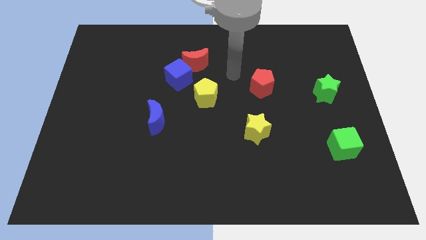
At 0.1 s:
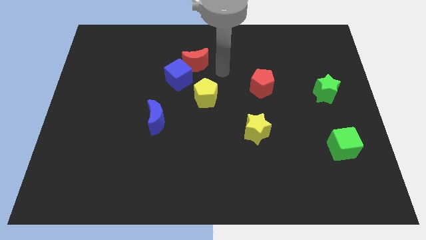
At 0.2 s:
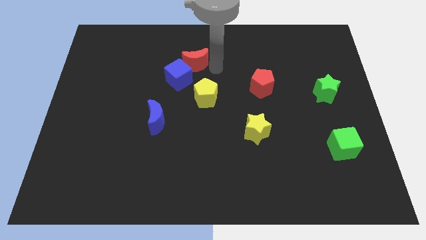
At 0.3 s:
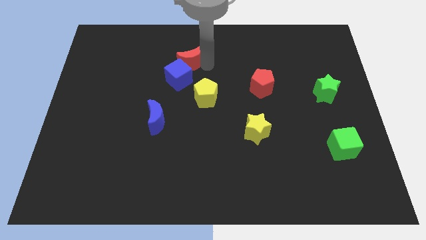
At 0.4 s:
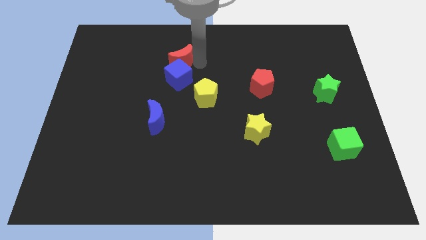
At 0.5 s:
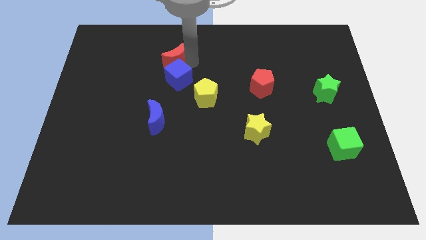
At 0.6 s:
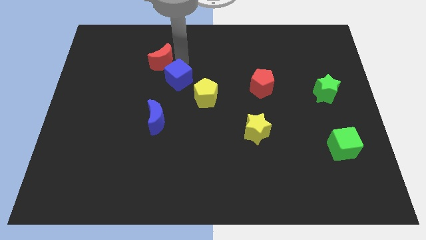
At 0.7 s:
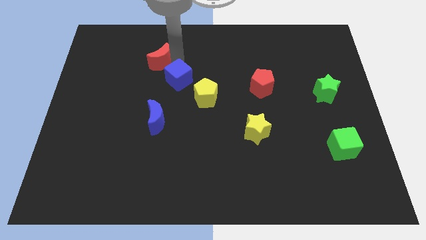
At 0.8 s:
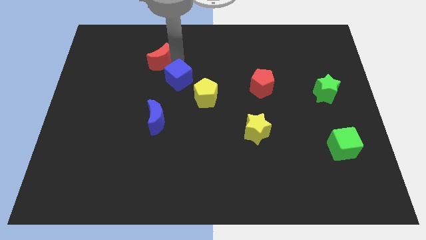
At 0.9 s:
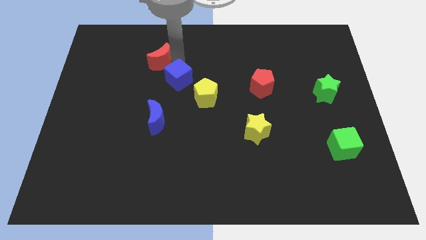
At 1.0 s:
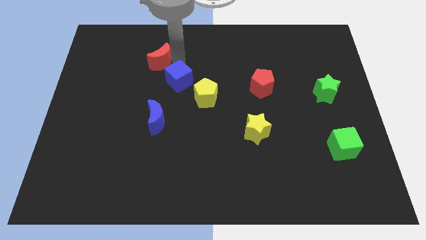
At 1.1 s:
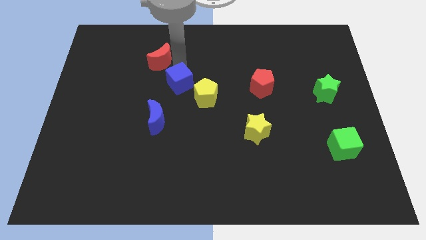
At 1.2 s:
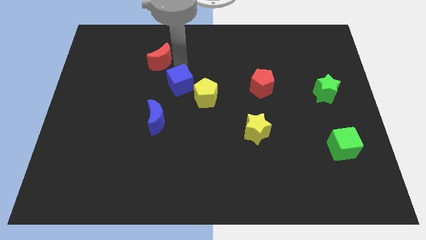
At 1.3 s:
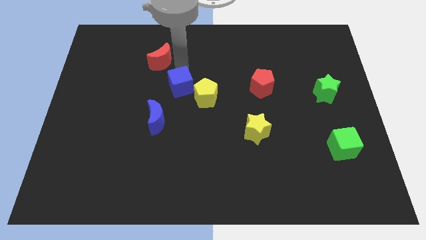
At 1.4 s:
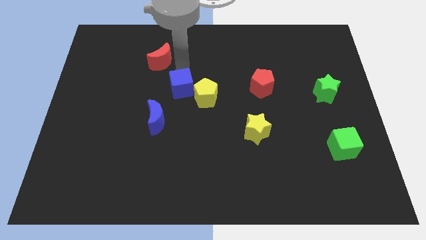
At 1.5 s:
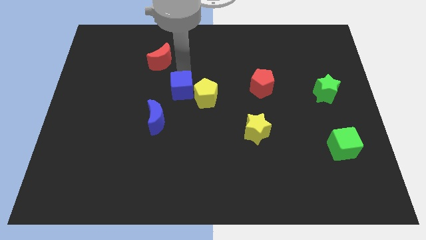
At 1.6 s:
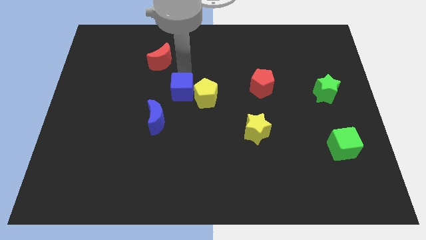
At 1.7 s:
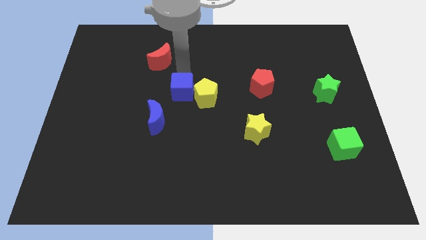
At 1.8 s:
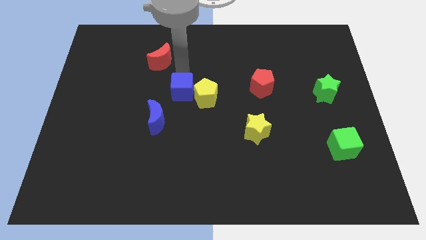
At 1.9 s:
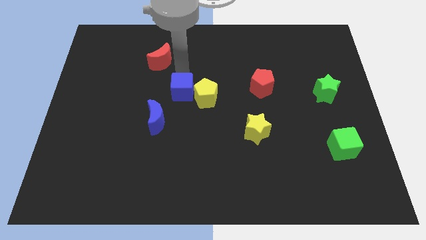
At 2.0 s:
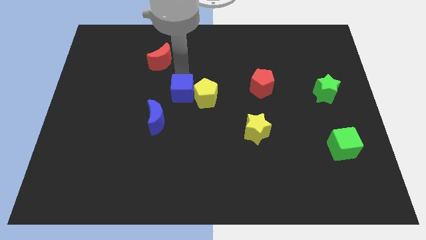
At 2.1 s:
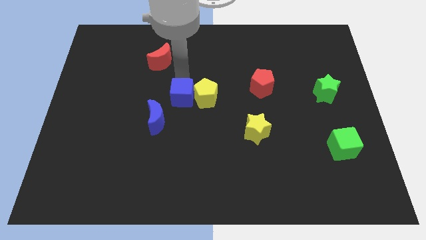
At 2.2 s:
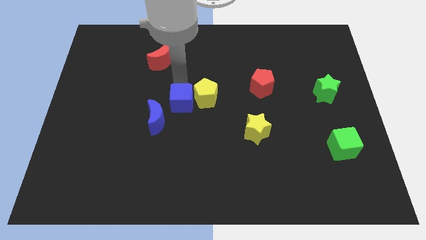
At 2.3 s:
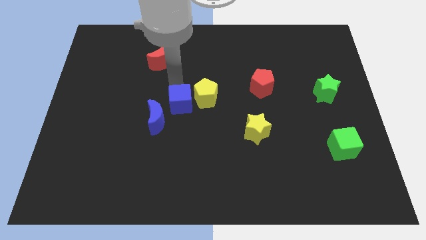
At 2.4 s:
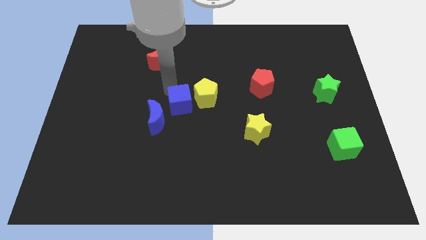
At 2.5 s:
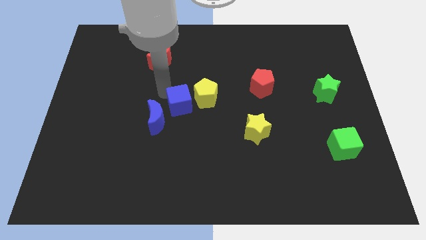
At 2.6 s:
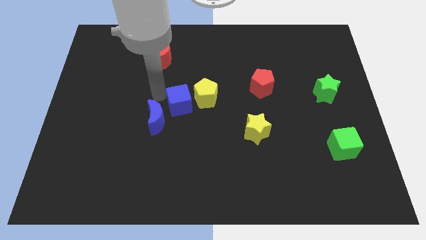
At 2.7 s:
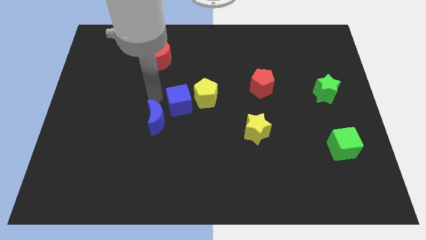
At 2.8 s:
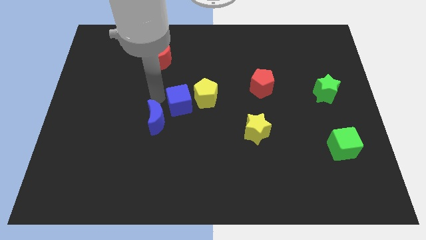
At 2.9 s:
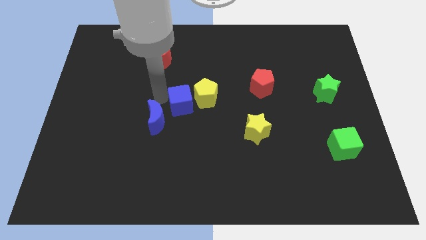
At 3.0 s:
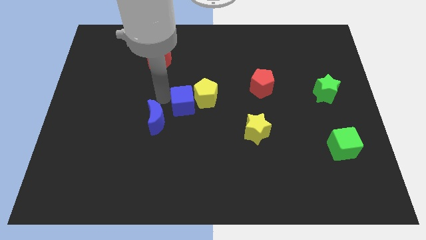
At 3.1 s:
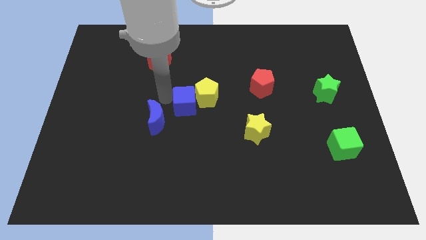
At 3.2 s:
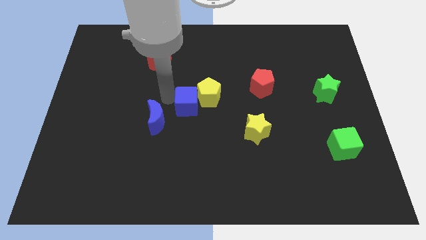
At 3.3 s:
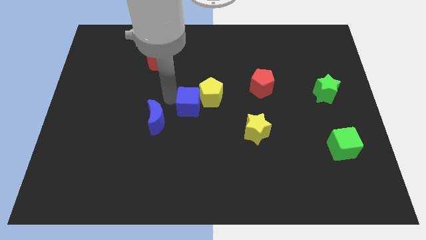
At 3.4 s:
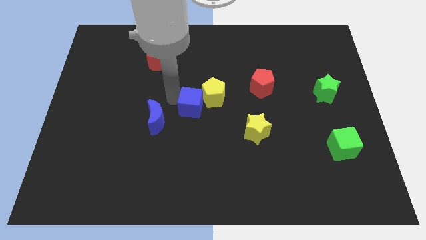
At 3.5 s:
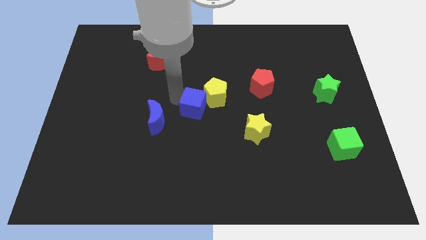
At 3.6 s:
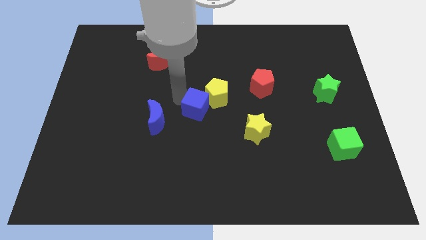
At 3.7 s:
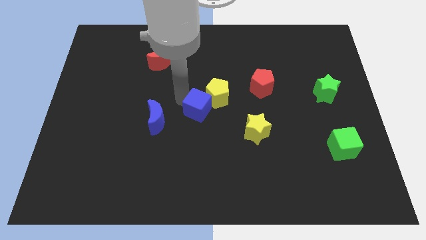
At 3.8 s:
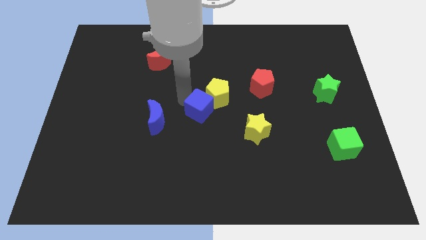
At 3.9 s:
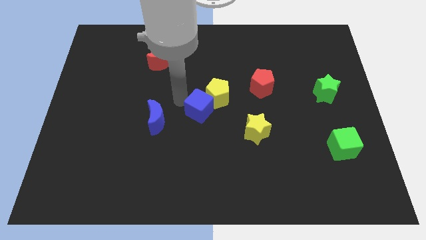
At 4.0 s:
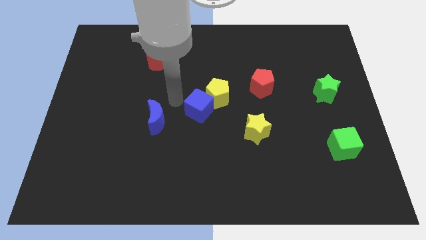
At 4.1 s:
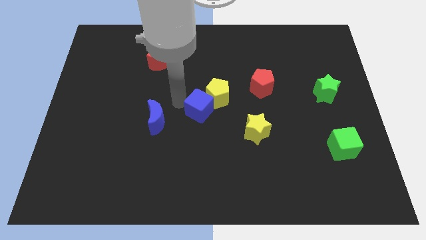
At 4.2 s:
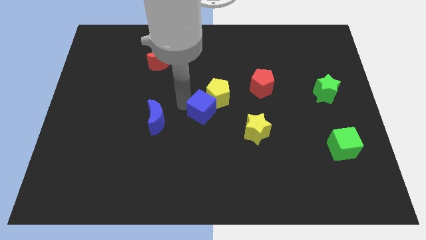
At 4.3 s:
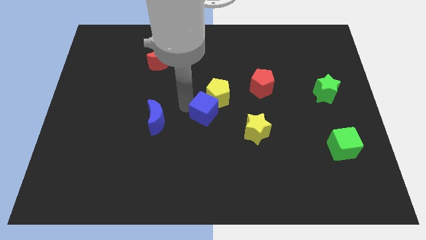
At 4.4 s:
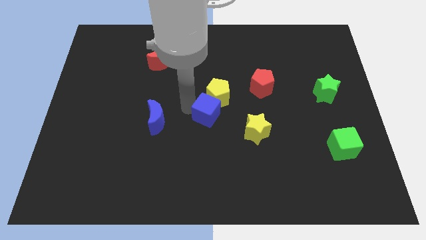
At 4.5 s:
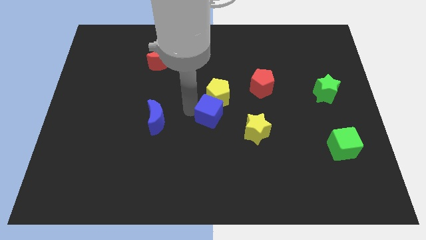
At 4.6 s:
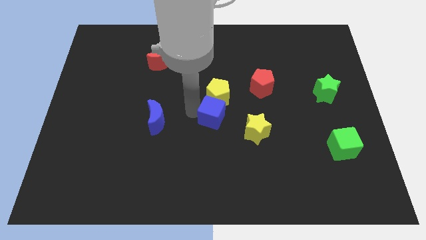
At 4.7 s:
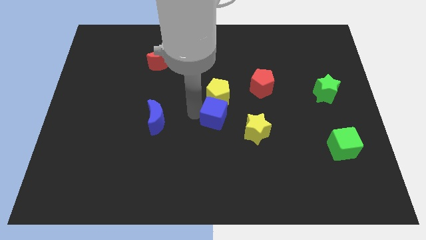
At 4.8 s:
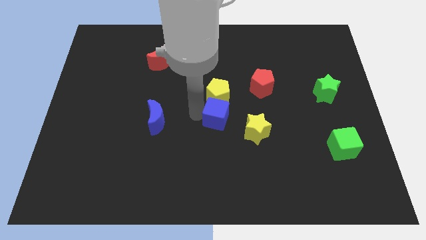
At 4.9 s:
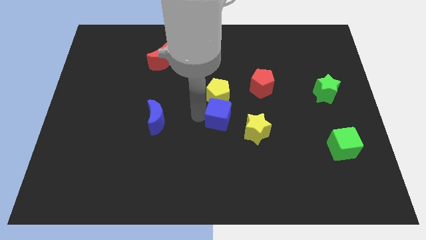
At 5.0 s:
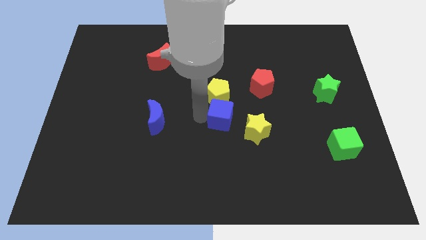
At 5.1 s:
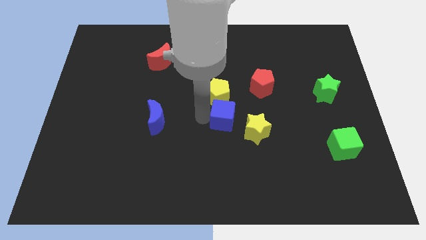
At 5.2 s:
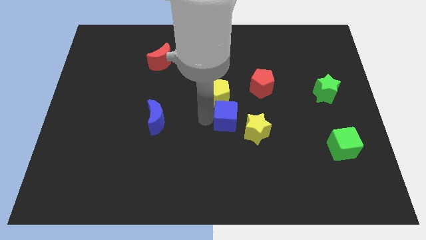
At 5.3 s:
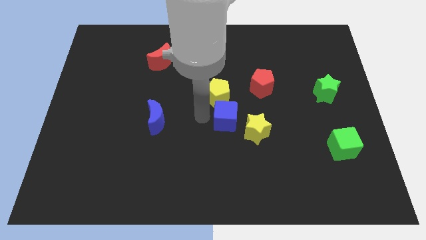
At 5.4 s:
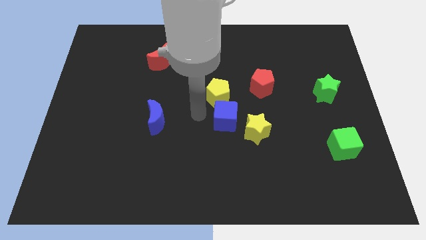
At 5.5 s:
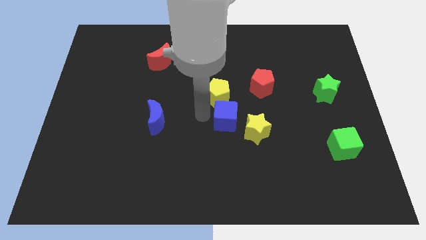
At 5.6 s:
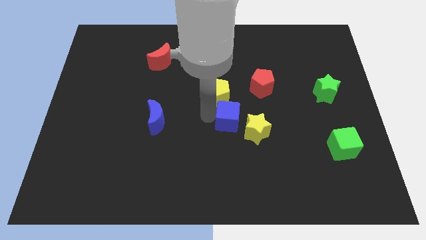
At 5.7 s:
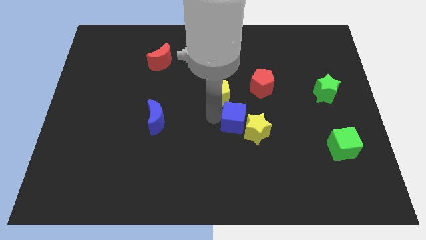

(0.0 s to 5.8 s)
put the blue cube towards the yellow star

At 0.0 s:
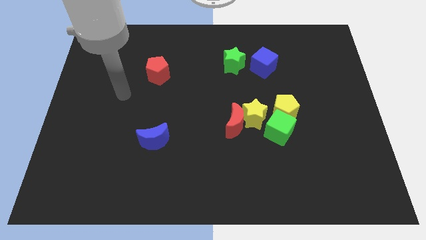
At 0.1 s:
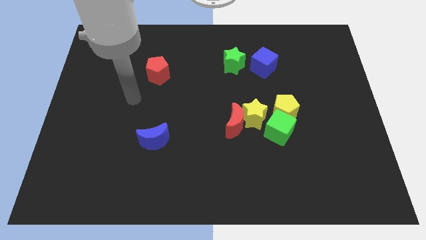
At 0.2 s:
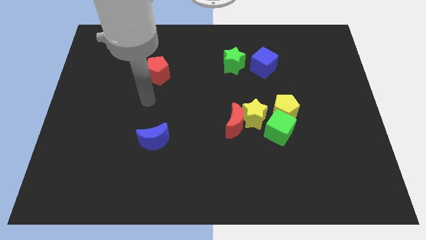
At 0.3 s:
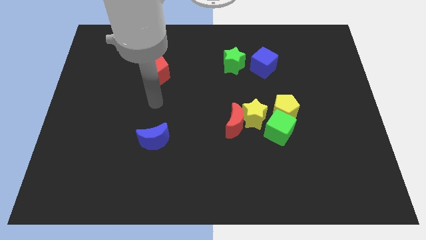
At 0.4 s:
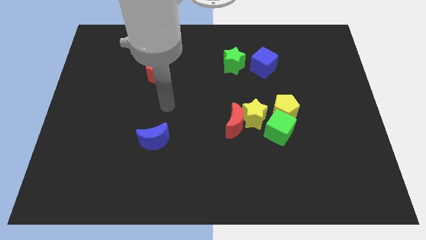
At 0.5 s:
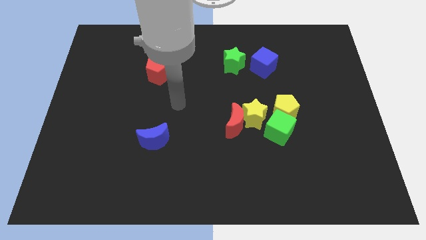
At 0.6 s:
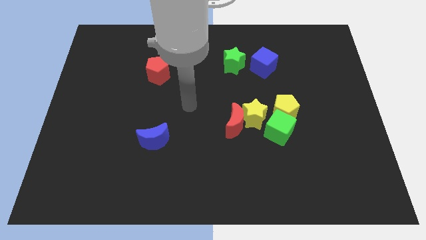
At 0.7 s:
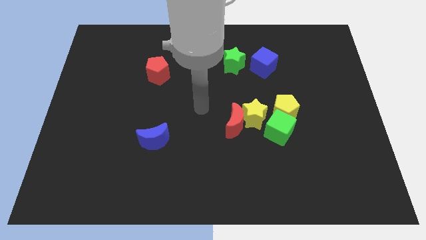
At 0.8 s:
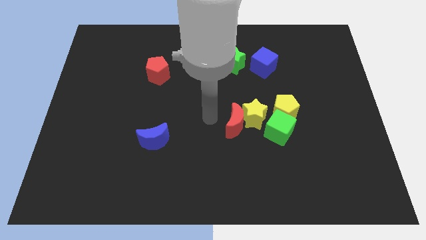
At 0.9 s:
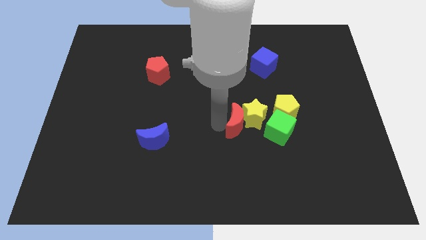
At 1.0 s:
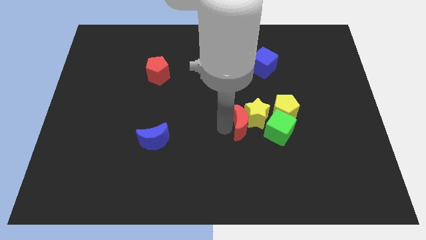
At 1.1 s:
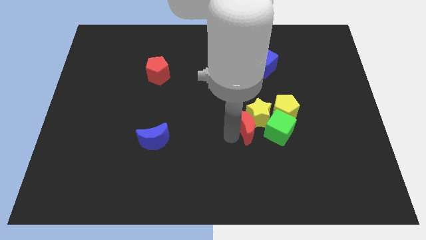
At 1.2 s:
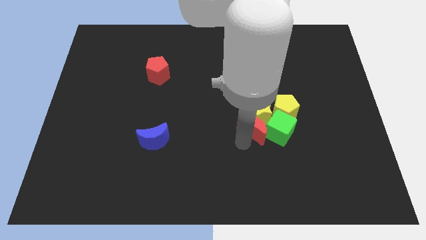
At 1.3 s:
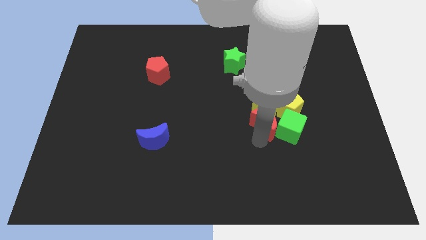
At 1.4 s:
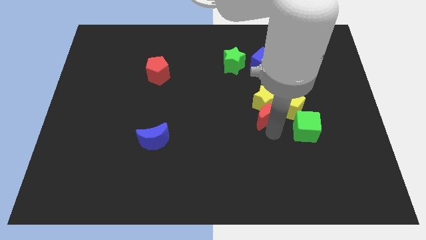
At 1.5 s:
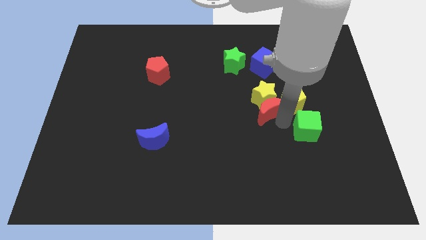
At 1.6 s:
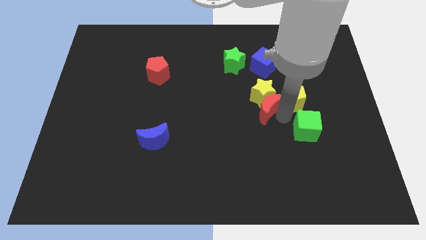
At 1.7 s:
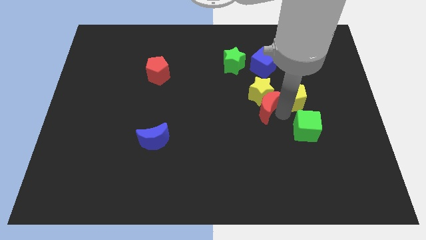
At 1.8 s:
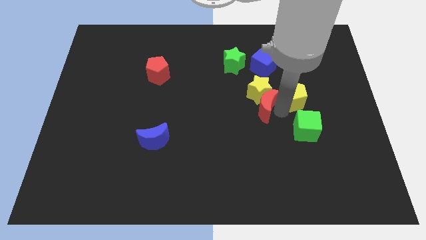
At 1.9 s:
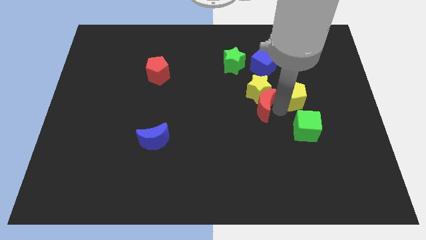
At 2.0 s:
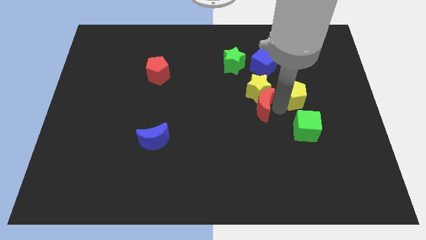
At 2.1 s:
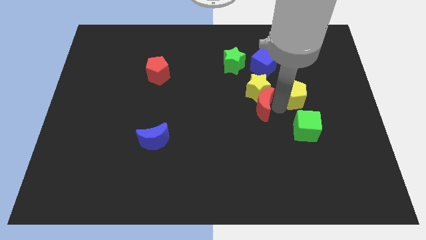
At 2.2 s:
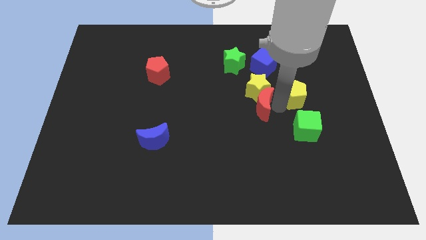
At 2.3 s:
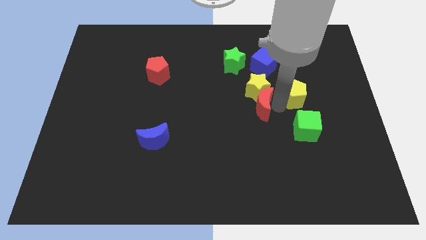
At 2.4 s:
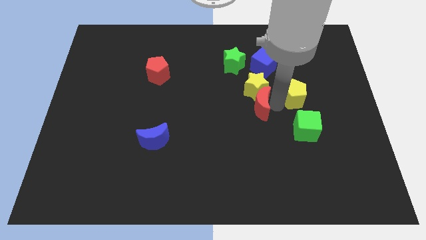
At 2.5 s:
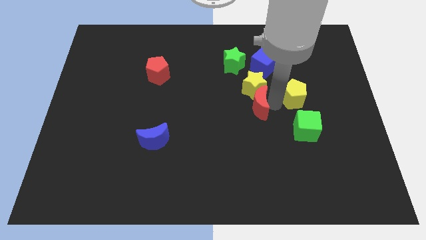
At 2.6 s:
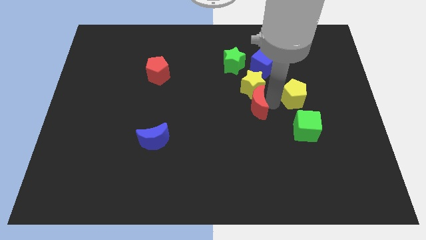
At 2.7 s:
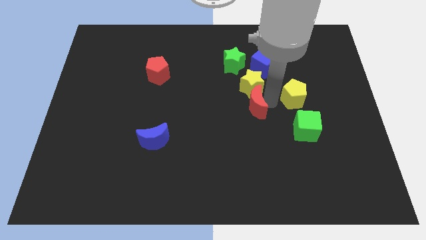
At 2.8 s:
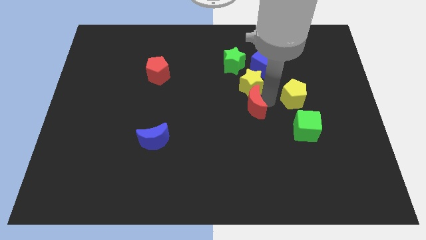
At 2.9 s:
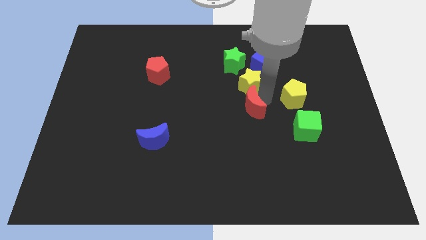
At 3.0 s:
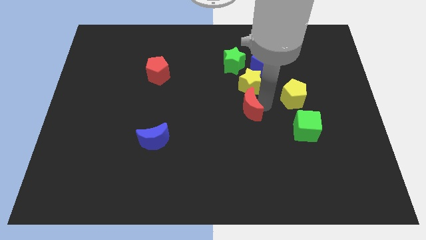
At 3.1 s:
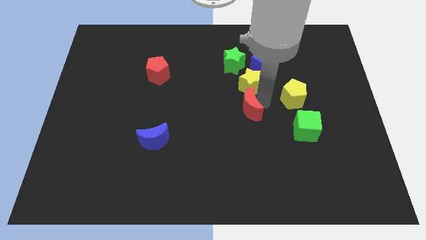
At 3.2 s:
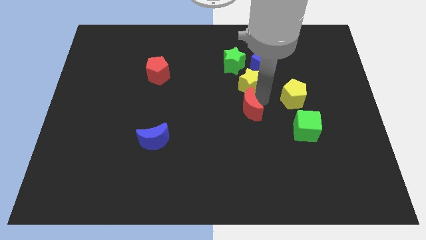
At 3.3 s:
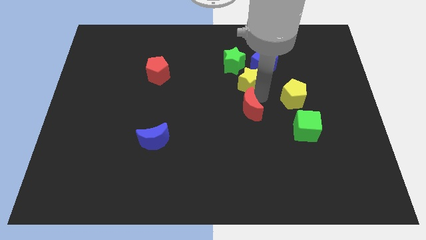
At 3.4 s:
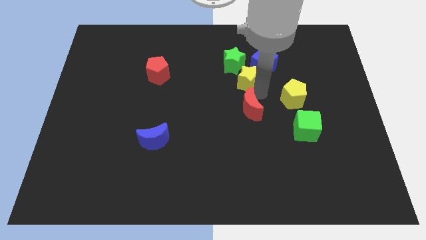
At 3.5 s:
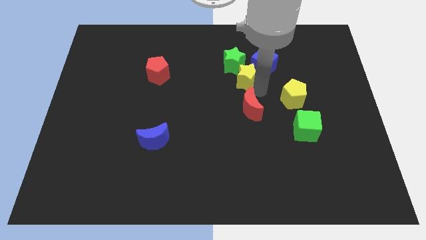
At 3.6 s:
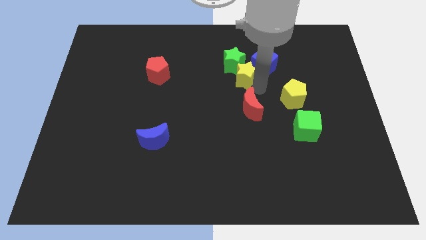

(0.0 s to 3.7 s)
push the yellow star towards the green star
